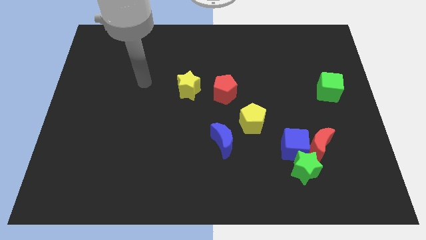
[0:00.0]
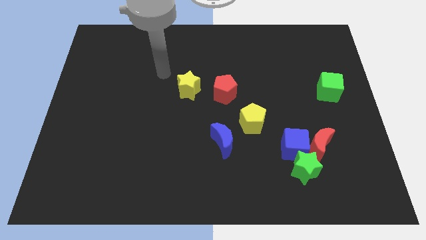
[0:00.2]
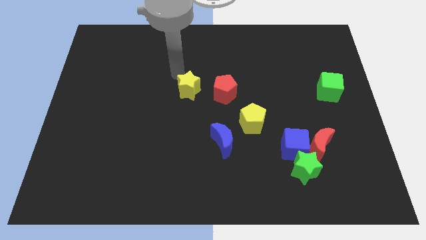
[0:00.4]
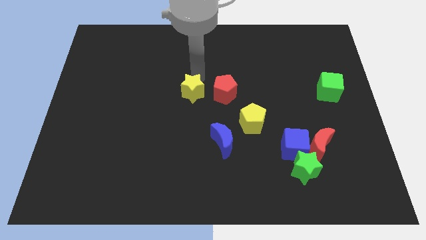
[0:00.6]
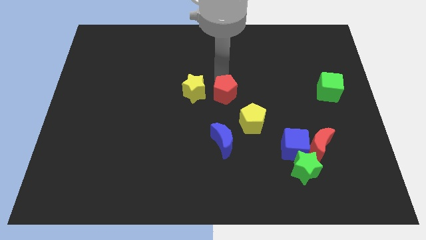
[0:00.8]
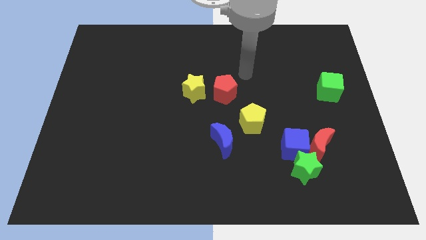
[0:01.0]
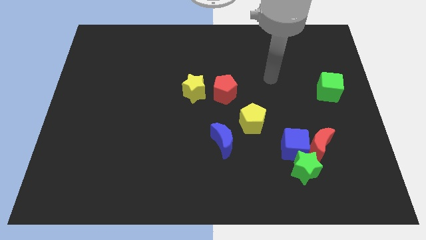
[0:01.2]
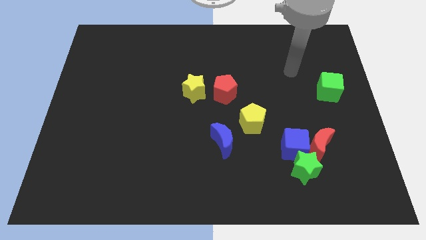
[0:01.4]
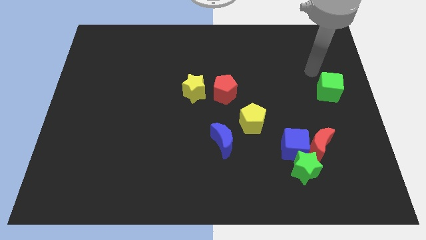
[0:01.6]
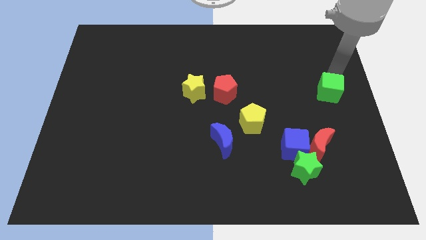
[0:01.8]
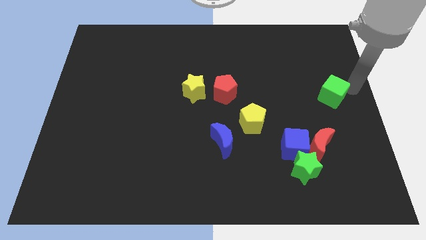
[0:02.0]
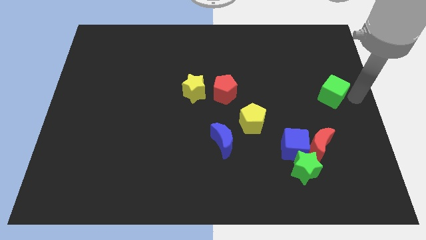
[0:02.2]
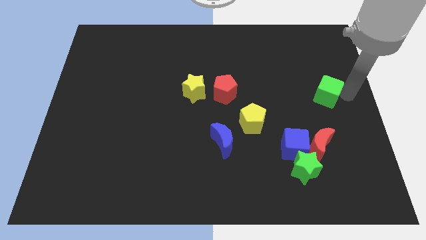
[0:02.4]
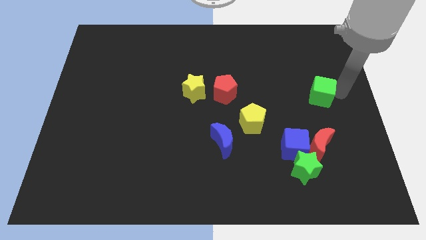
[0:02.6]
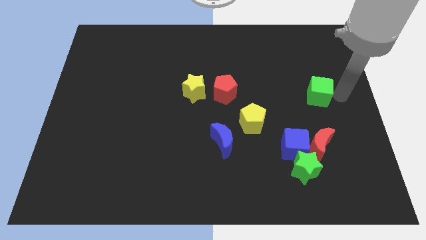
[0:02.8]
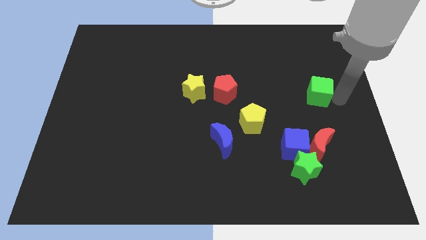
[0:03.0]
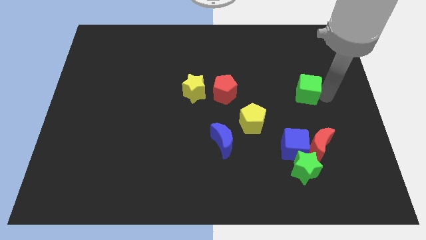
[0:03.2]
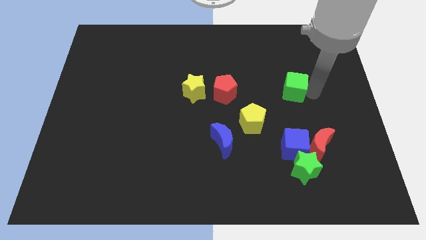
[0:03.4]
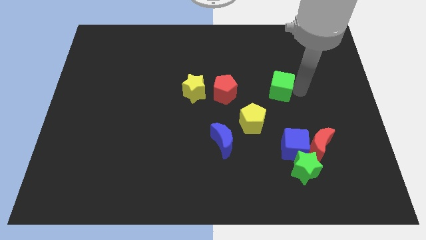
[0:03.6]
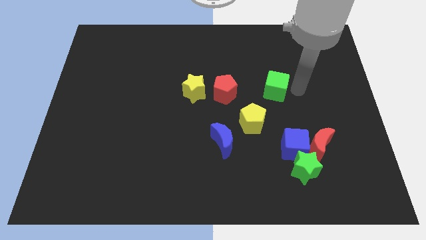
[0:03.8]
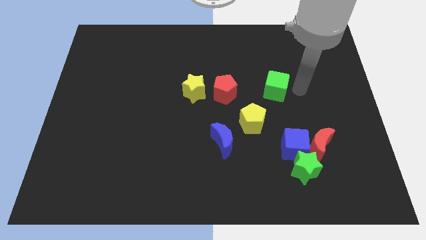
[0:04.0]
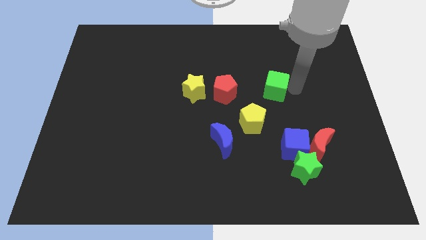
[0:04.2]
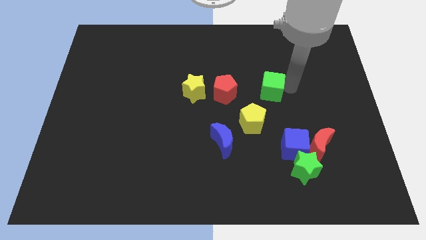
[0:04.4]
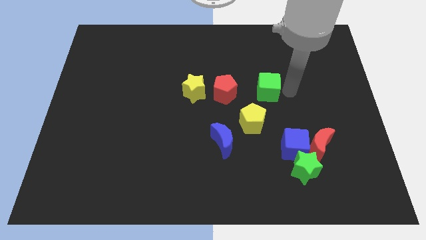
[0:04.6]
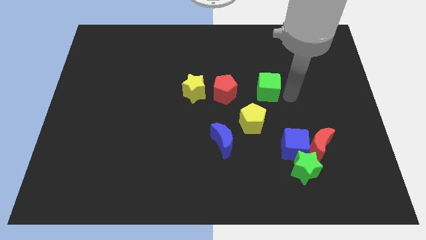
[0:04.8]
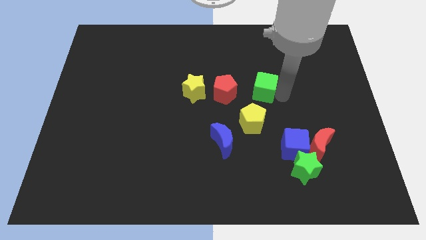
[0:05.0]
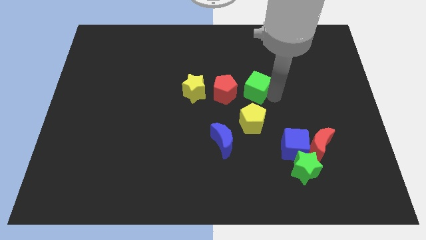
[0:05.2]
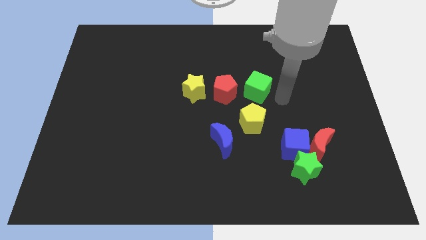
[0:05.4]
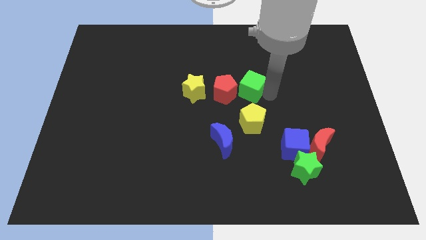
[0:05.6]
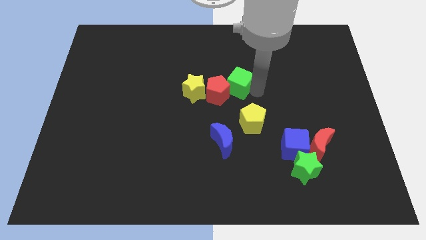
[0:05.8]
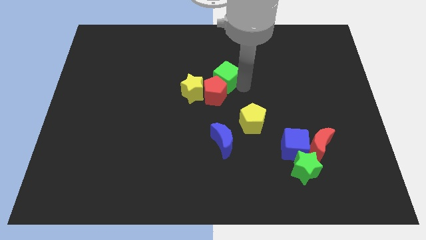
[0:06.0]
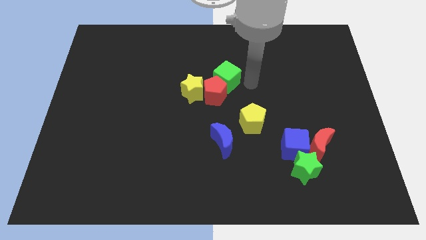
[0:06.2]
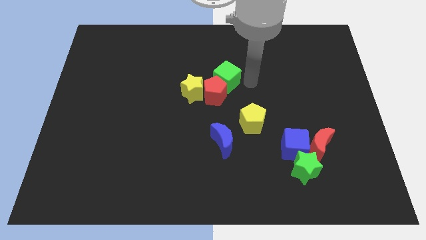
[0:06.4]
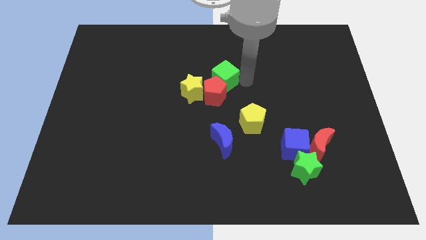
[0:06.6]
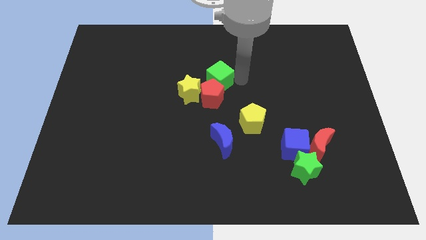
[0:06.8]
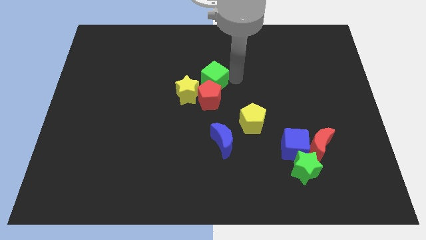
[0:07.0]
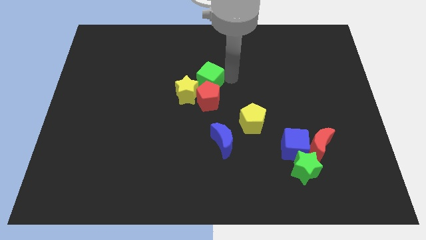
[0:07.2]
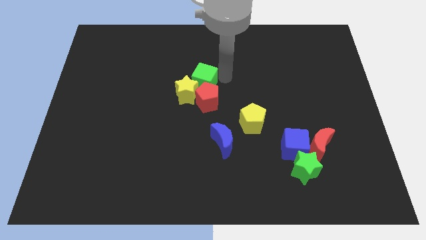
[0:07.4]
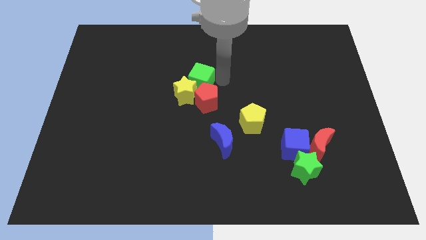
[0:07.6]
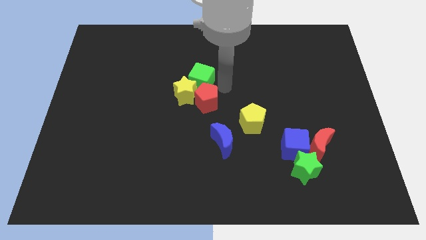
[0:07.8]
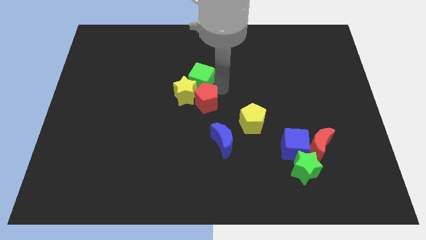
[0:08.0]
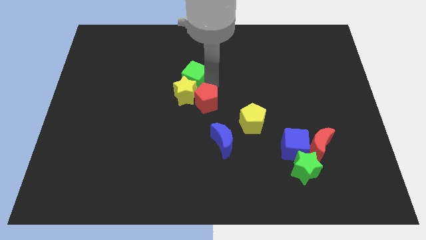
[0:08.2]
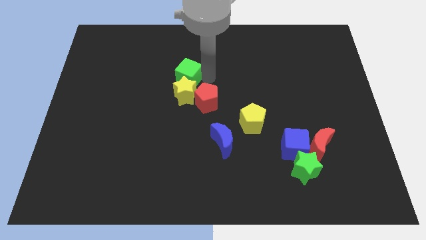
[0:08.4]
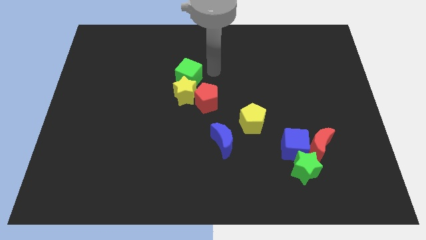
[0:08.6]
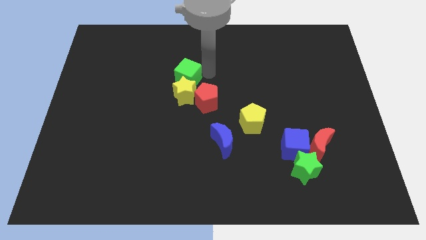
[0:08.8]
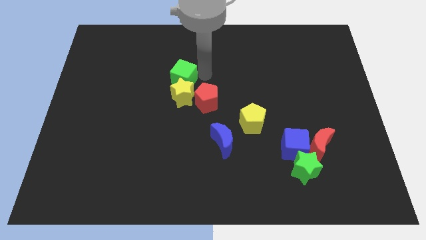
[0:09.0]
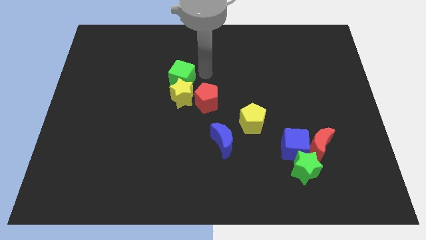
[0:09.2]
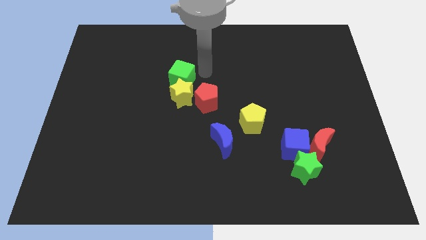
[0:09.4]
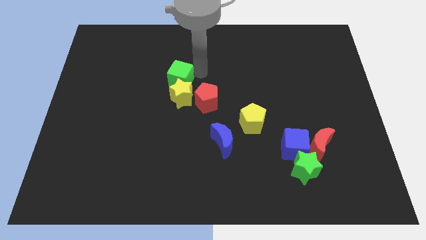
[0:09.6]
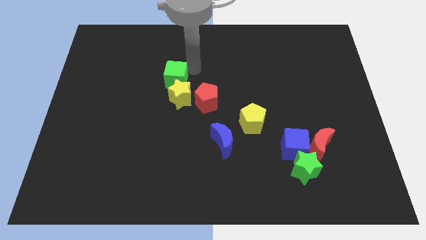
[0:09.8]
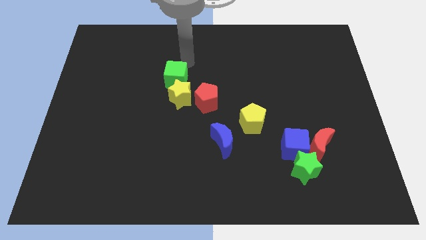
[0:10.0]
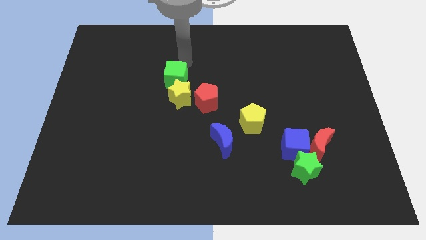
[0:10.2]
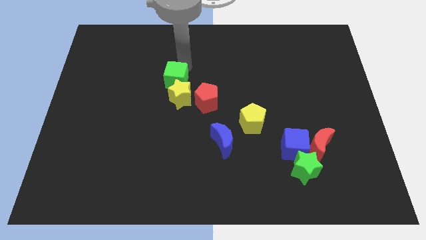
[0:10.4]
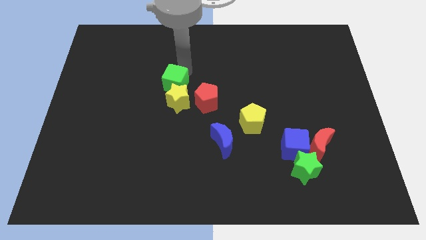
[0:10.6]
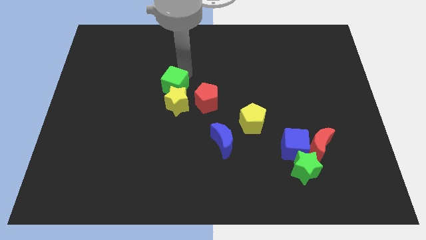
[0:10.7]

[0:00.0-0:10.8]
put the green cube to the left side of the red pentagon

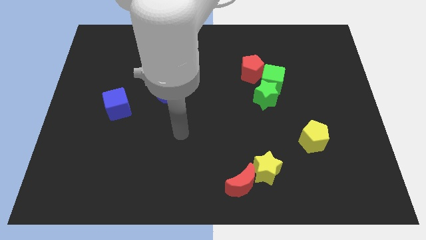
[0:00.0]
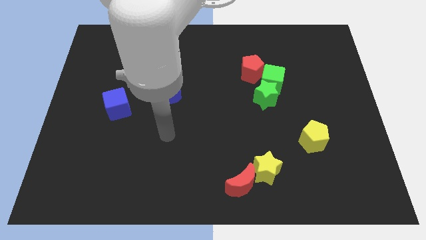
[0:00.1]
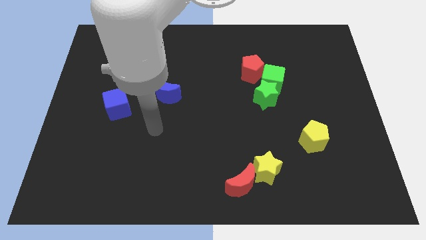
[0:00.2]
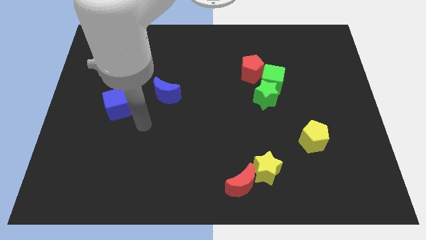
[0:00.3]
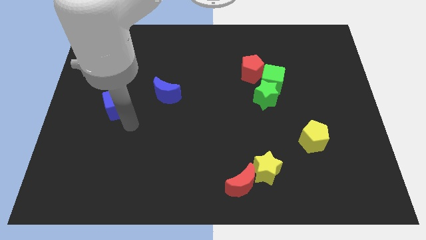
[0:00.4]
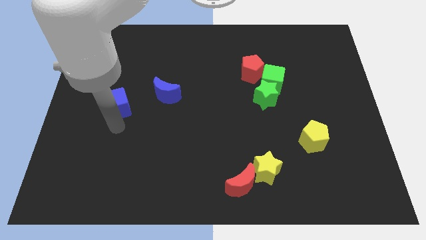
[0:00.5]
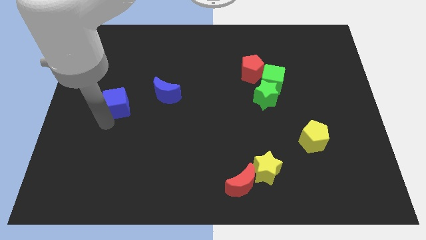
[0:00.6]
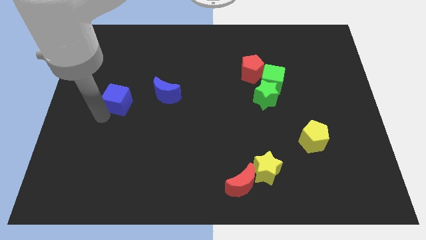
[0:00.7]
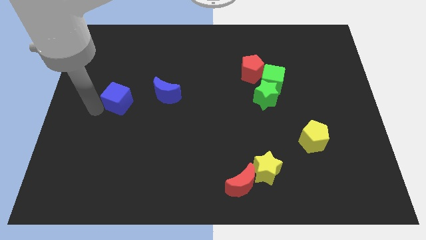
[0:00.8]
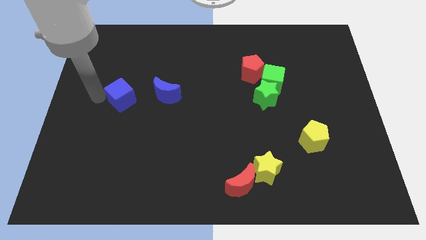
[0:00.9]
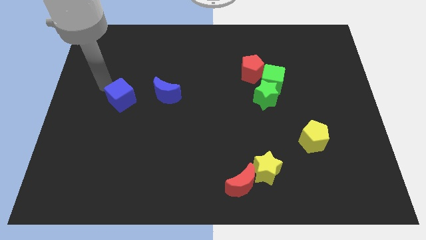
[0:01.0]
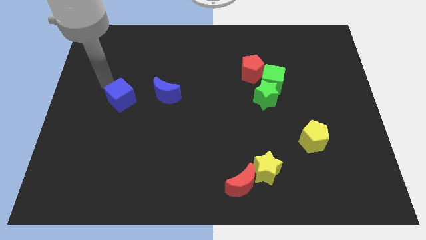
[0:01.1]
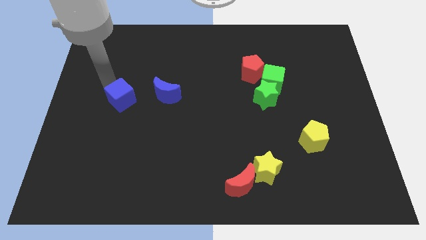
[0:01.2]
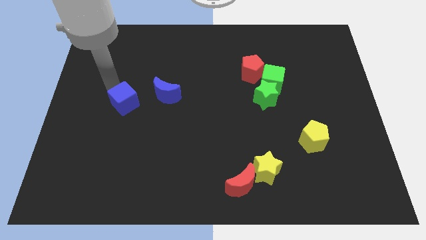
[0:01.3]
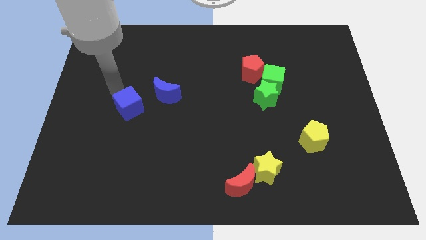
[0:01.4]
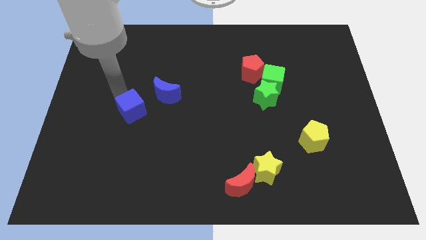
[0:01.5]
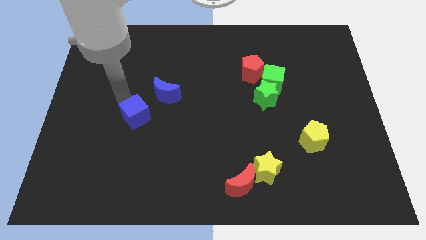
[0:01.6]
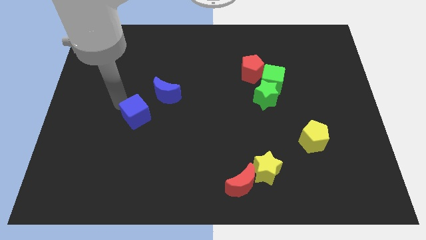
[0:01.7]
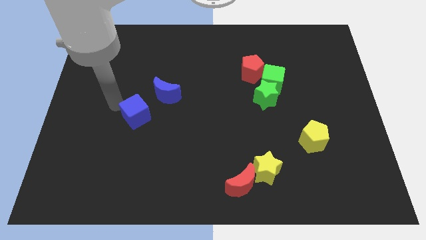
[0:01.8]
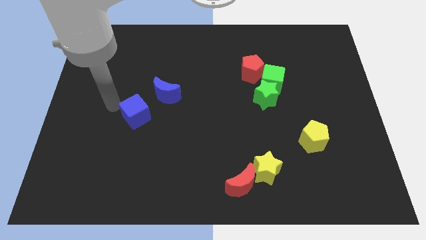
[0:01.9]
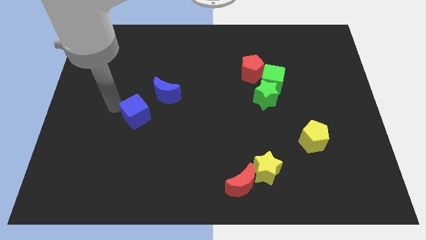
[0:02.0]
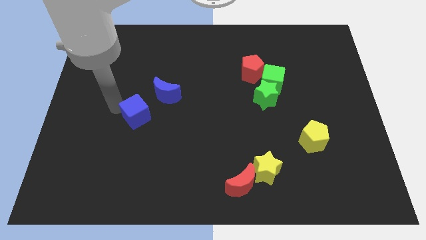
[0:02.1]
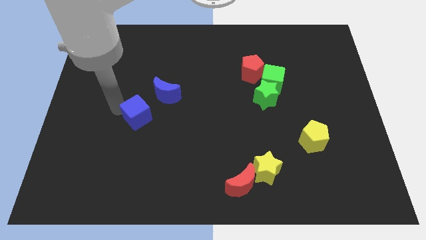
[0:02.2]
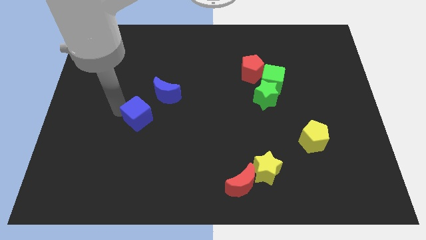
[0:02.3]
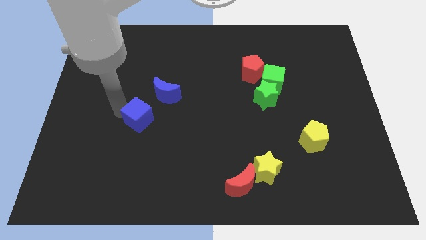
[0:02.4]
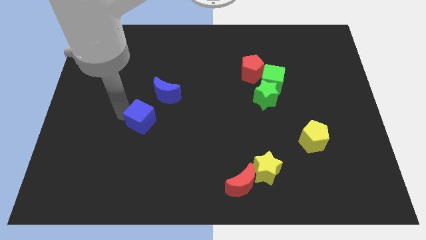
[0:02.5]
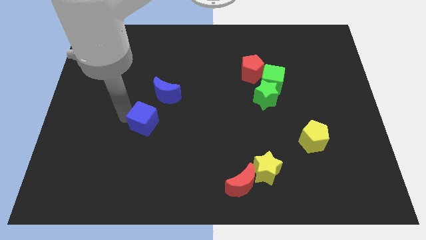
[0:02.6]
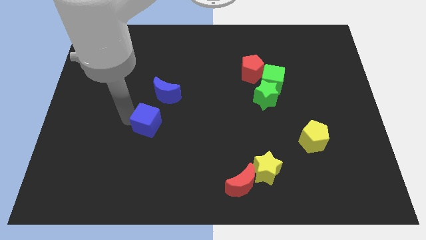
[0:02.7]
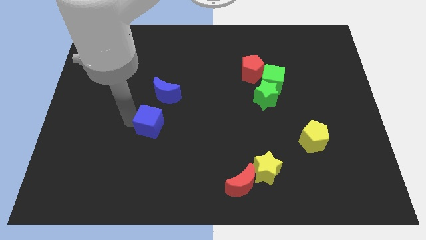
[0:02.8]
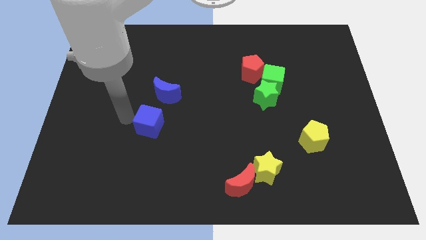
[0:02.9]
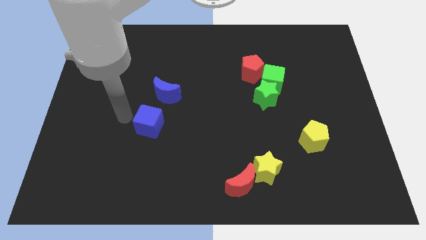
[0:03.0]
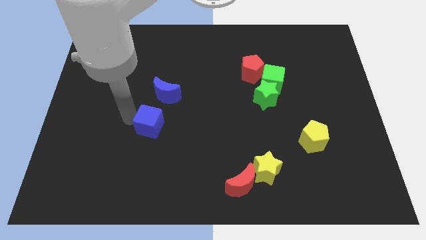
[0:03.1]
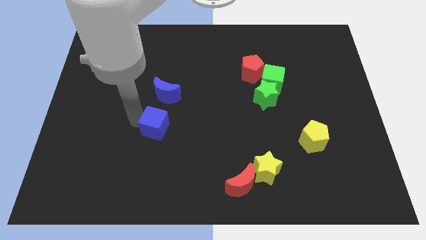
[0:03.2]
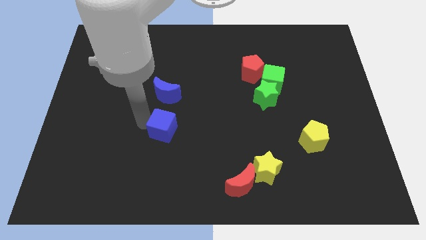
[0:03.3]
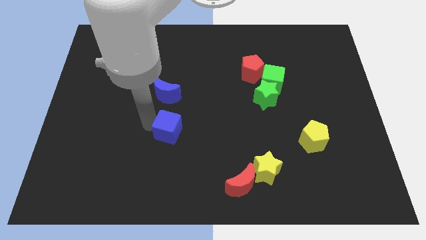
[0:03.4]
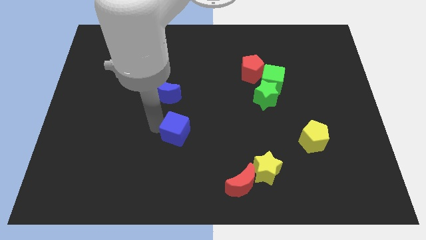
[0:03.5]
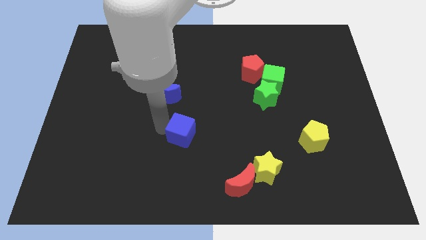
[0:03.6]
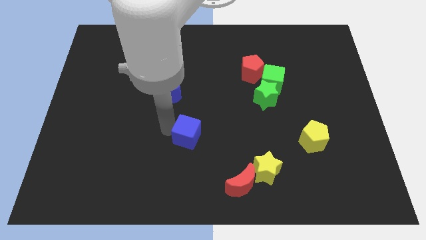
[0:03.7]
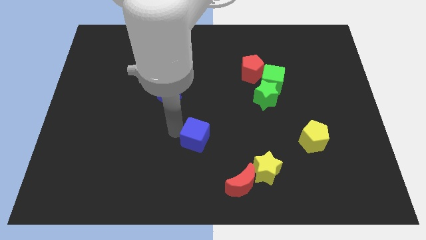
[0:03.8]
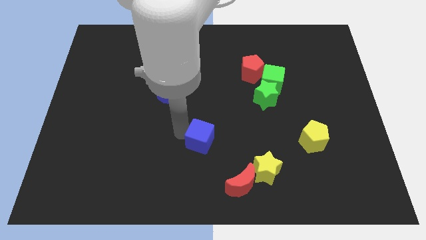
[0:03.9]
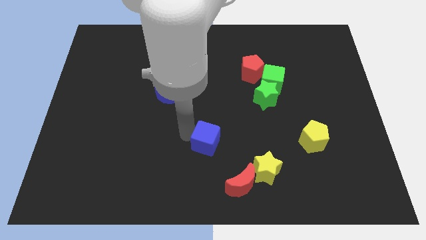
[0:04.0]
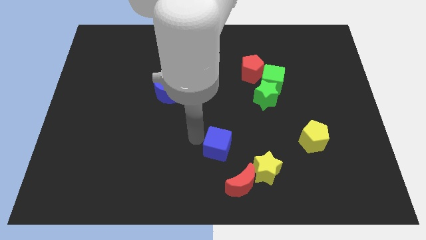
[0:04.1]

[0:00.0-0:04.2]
slide the blue cube to the top left of the yellow star
